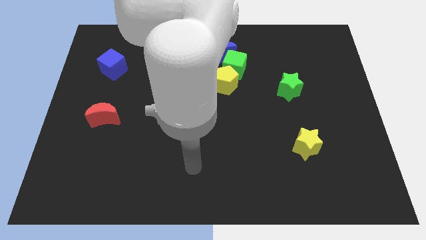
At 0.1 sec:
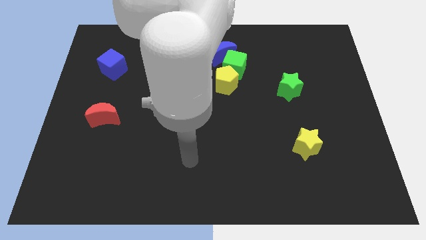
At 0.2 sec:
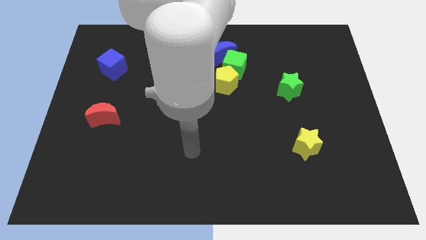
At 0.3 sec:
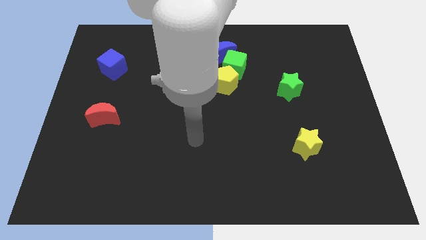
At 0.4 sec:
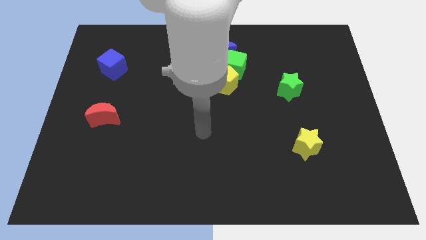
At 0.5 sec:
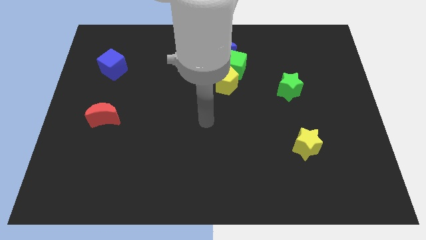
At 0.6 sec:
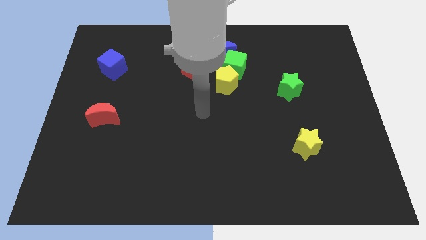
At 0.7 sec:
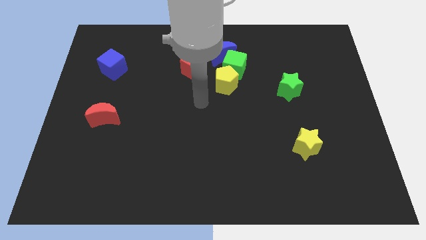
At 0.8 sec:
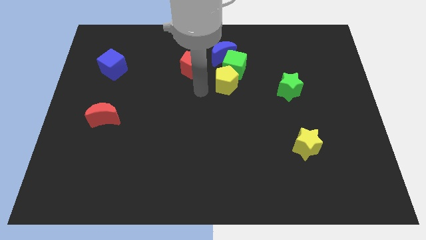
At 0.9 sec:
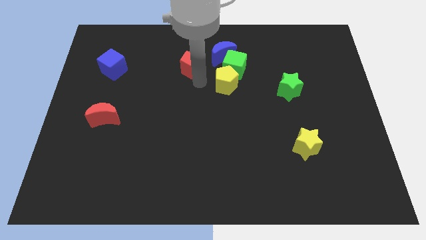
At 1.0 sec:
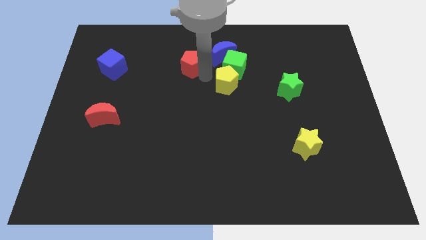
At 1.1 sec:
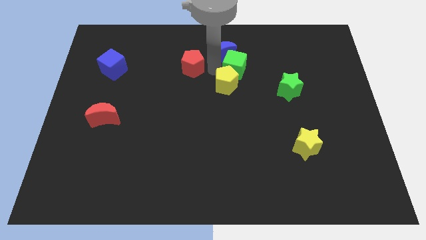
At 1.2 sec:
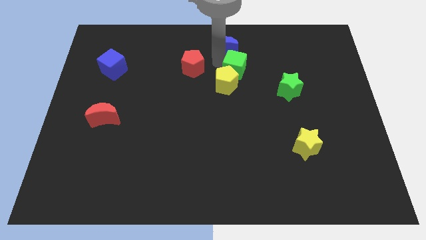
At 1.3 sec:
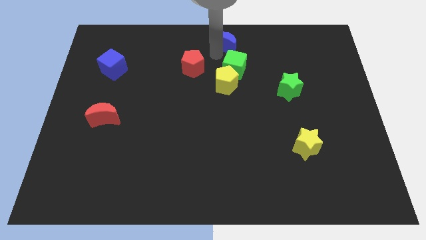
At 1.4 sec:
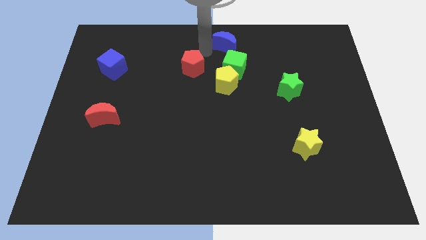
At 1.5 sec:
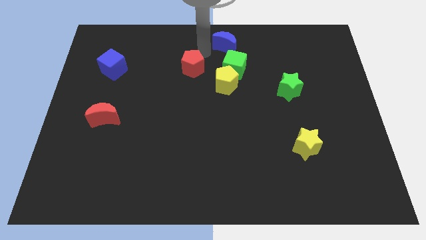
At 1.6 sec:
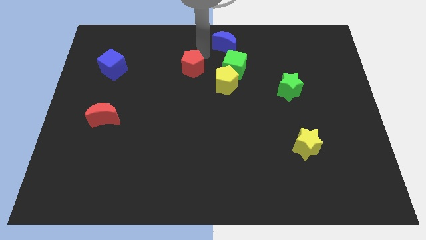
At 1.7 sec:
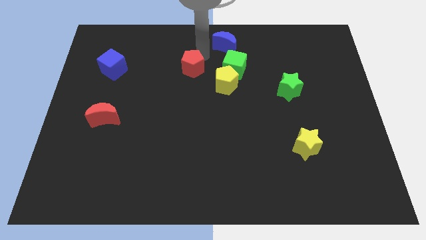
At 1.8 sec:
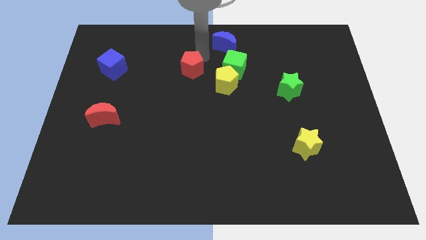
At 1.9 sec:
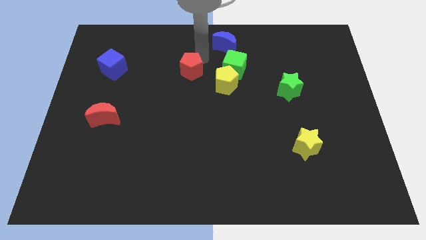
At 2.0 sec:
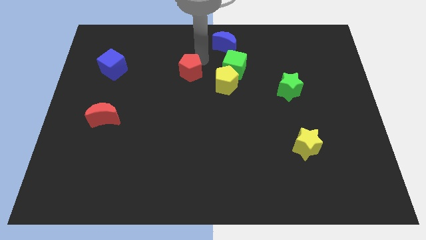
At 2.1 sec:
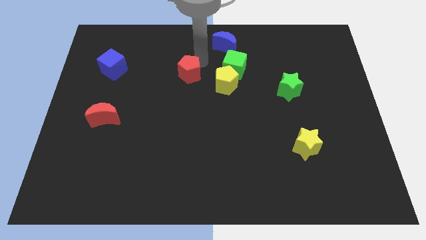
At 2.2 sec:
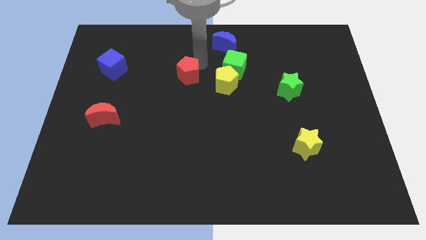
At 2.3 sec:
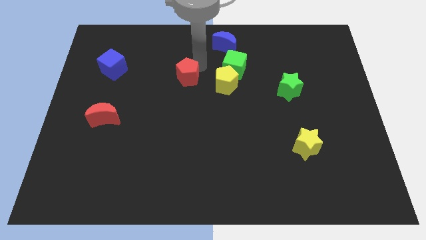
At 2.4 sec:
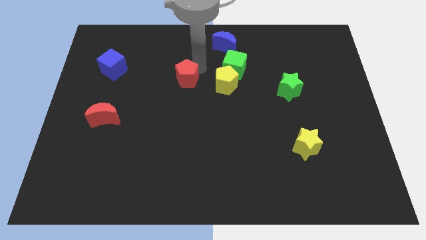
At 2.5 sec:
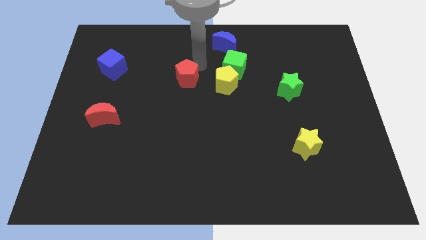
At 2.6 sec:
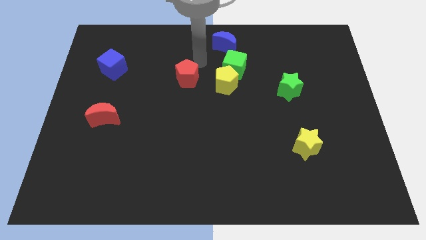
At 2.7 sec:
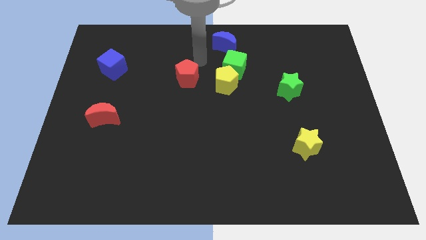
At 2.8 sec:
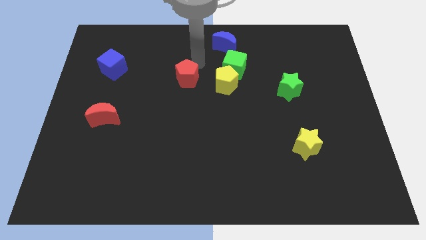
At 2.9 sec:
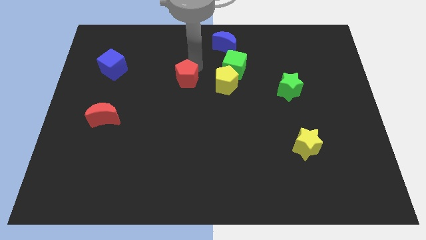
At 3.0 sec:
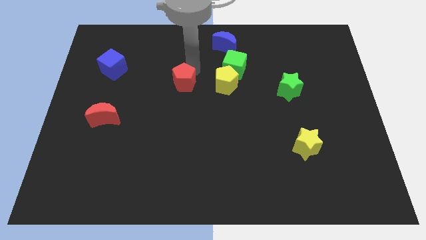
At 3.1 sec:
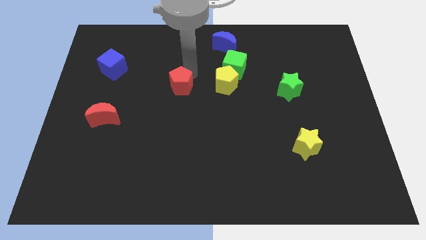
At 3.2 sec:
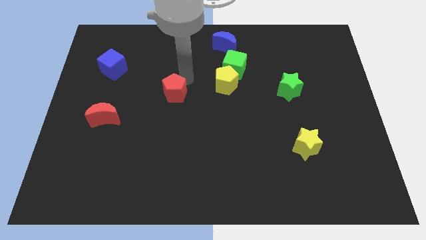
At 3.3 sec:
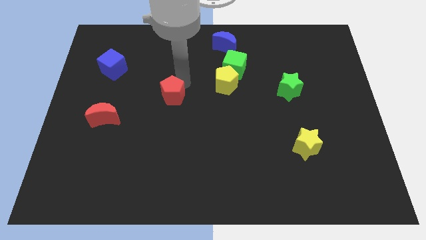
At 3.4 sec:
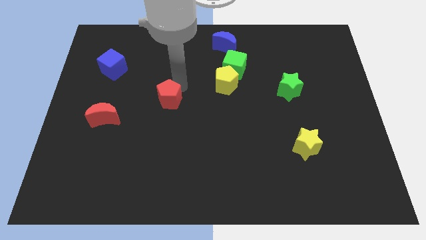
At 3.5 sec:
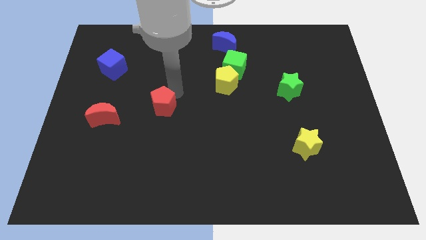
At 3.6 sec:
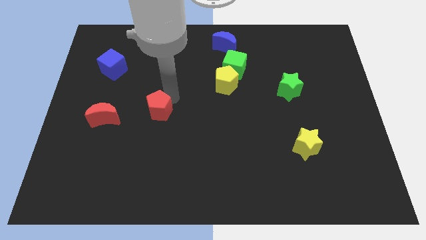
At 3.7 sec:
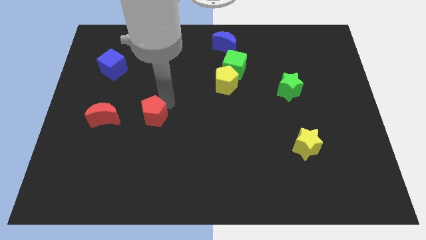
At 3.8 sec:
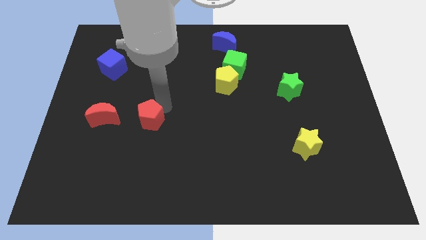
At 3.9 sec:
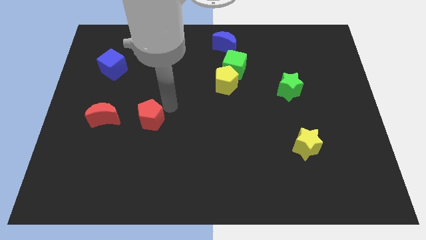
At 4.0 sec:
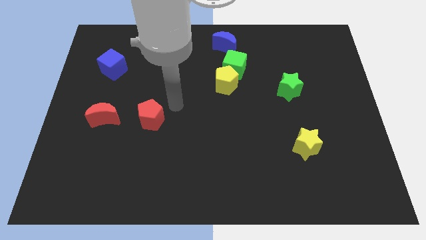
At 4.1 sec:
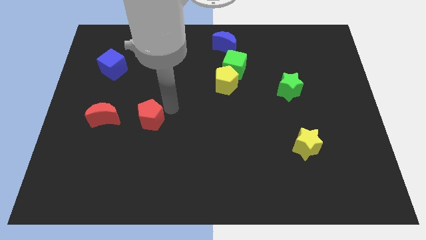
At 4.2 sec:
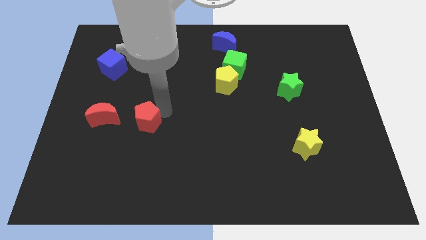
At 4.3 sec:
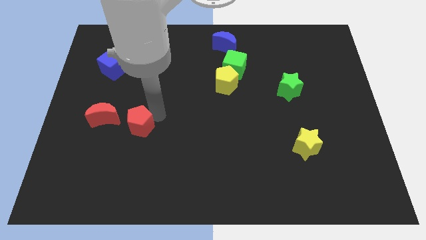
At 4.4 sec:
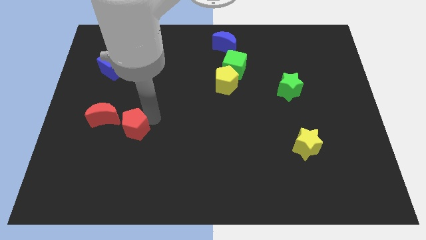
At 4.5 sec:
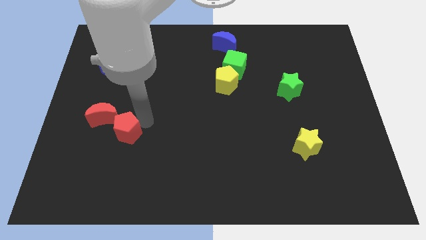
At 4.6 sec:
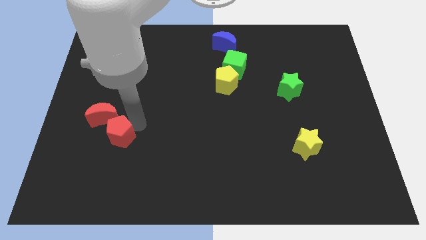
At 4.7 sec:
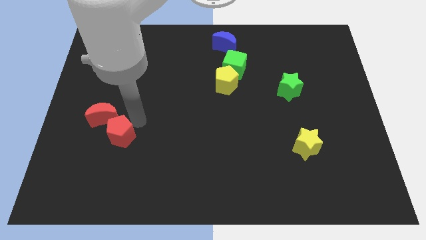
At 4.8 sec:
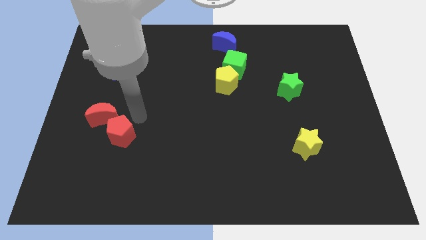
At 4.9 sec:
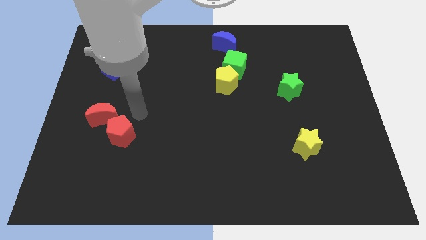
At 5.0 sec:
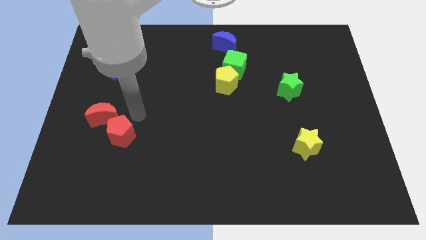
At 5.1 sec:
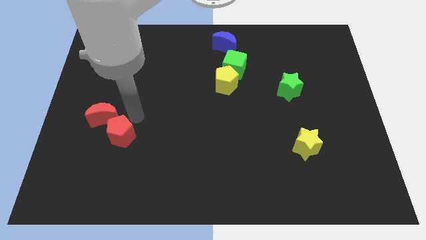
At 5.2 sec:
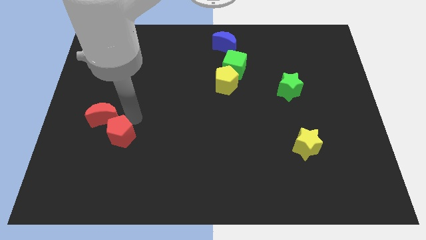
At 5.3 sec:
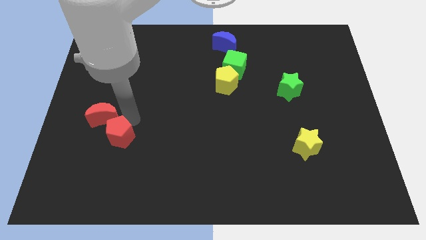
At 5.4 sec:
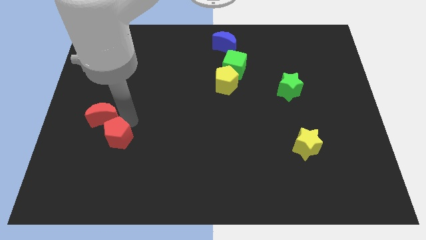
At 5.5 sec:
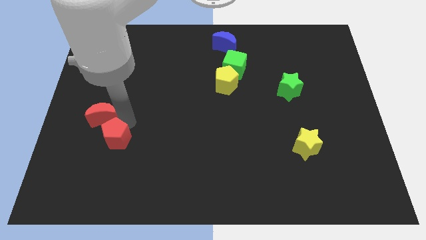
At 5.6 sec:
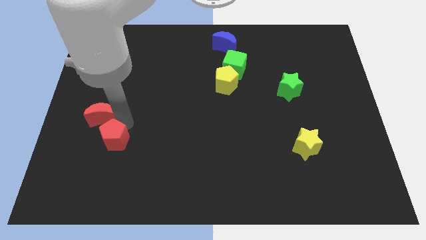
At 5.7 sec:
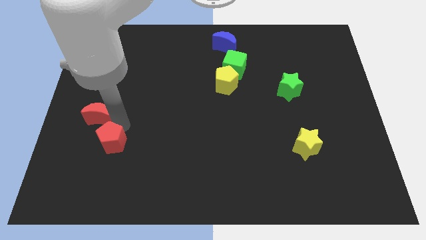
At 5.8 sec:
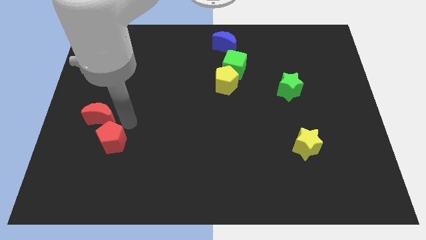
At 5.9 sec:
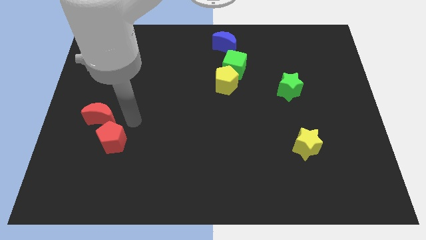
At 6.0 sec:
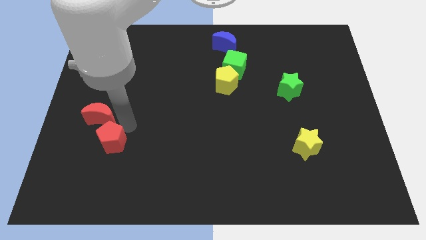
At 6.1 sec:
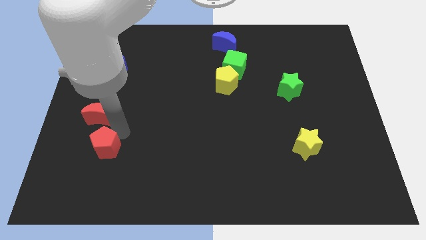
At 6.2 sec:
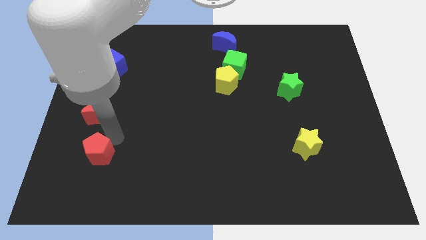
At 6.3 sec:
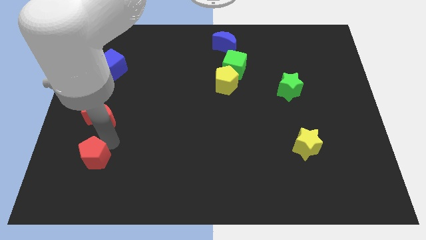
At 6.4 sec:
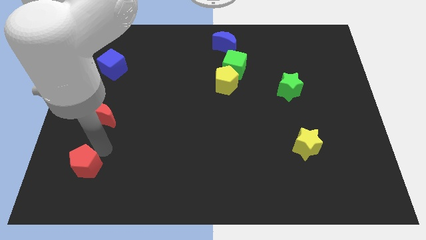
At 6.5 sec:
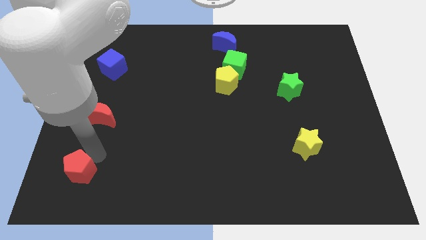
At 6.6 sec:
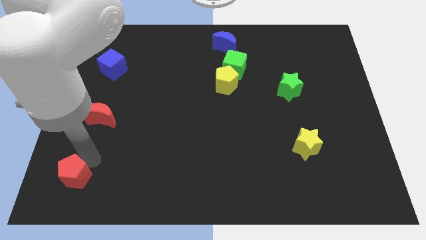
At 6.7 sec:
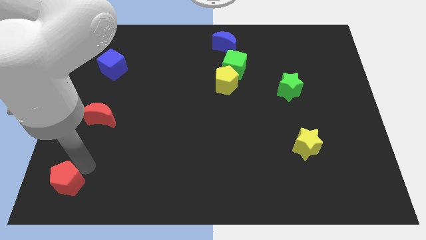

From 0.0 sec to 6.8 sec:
push the red pentagon to the bottom left of the board
